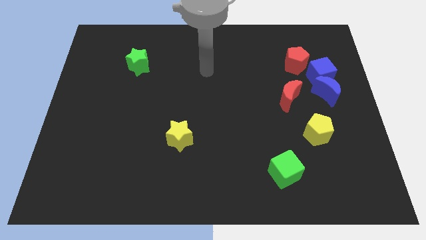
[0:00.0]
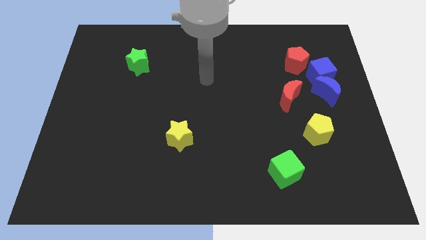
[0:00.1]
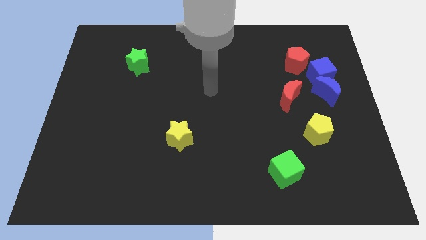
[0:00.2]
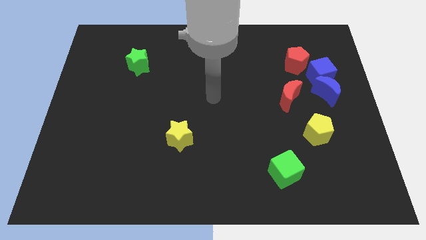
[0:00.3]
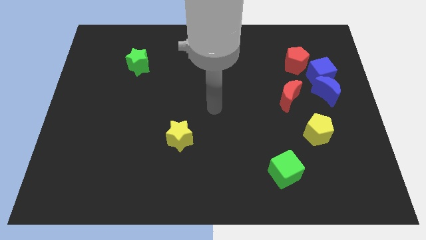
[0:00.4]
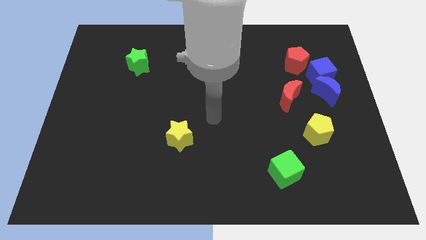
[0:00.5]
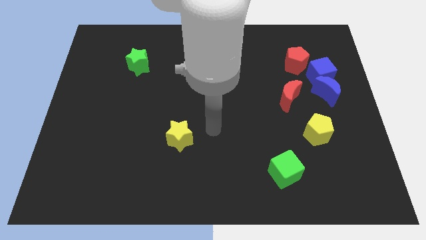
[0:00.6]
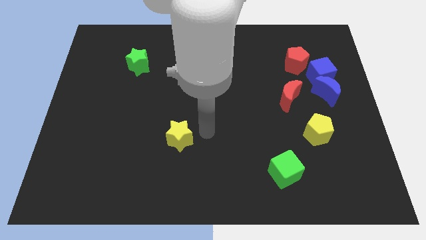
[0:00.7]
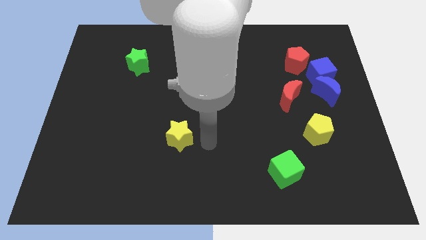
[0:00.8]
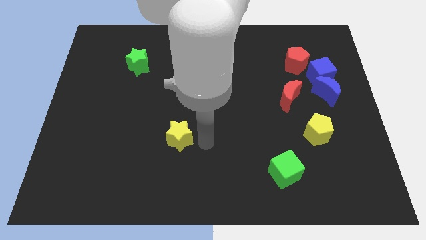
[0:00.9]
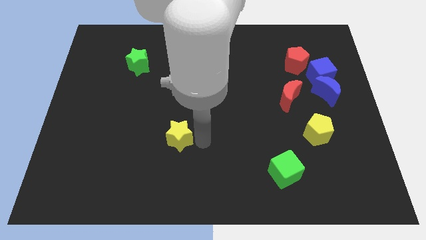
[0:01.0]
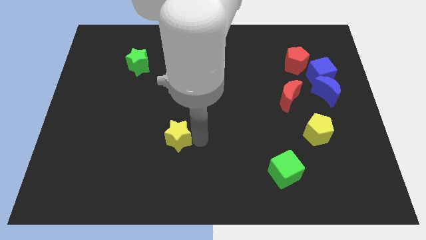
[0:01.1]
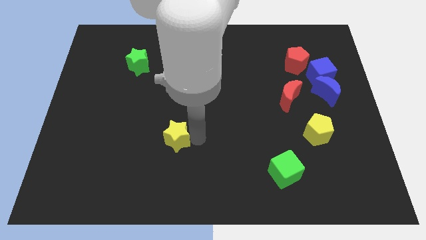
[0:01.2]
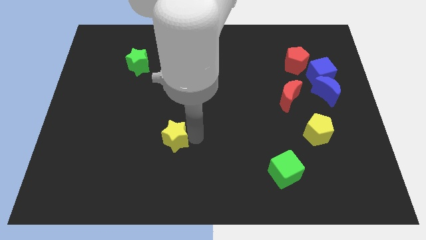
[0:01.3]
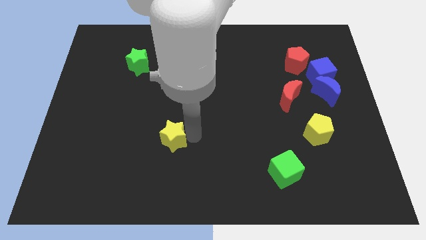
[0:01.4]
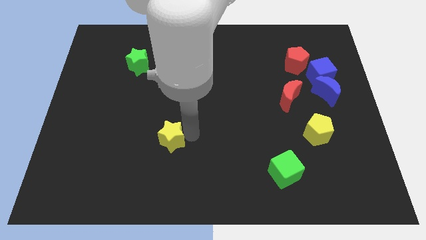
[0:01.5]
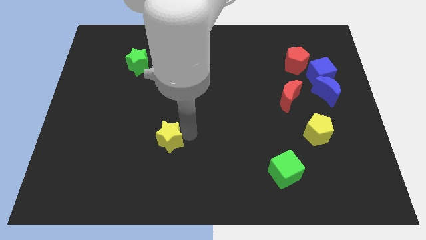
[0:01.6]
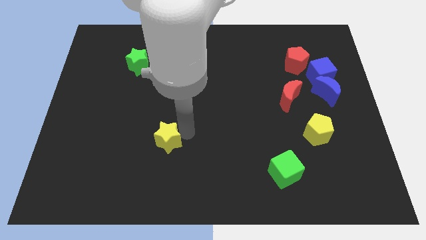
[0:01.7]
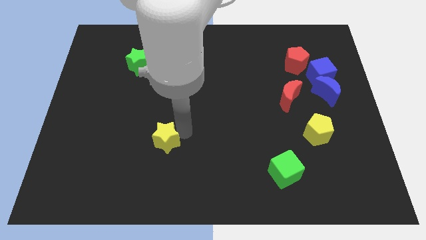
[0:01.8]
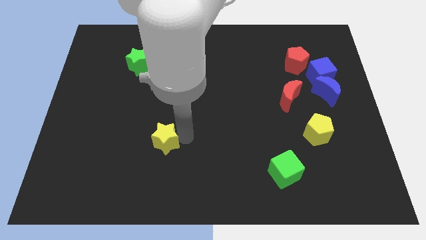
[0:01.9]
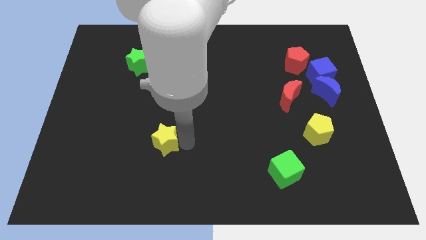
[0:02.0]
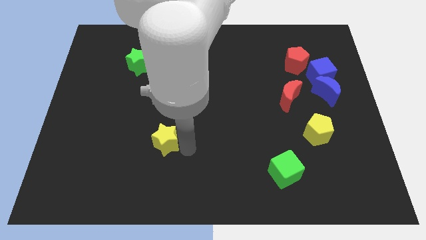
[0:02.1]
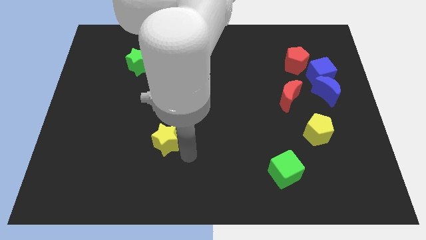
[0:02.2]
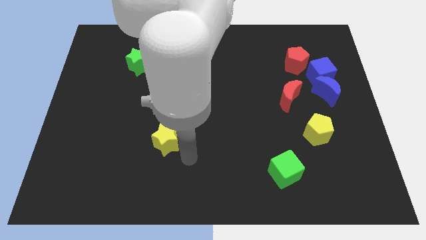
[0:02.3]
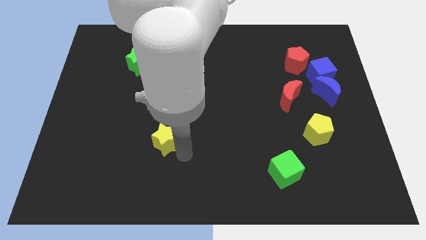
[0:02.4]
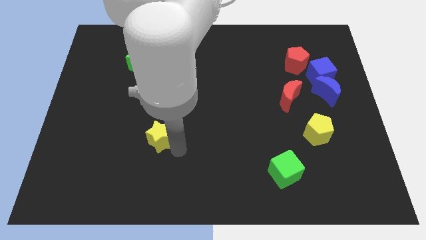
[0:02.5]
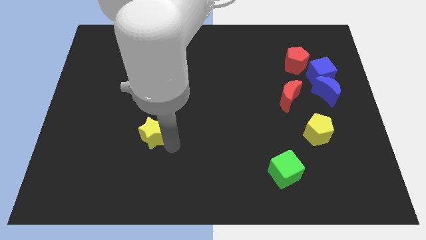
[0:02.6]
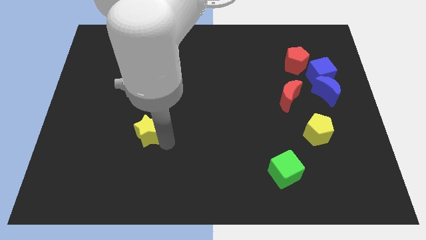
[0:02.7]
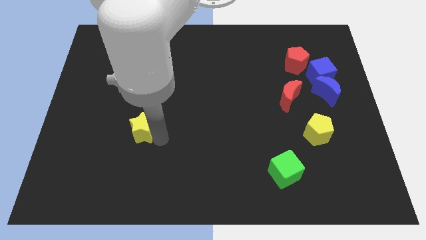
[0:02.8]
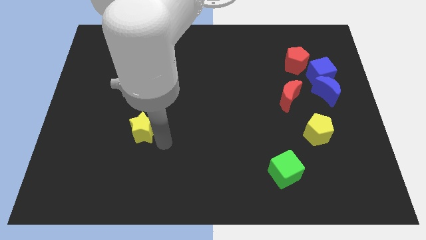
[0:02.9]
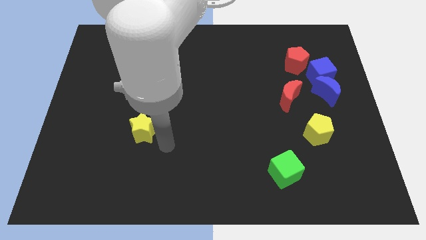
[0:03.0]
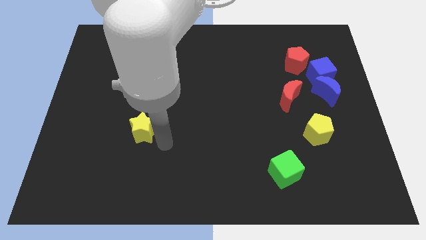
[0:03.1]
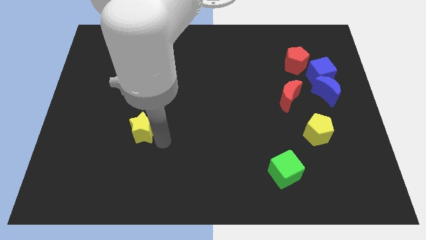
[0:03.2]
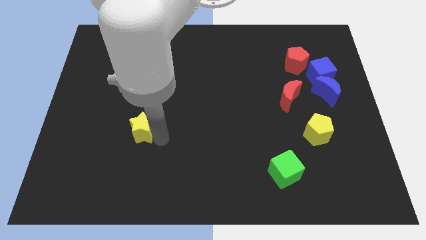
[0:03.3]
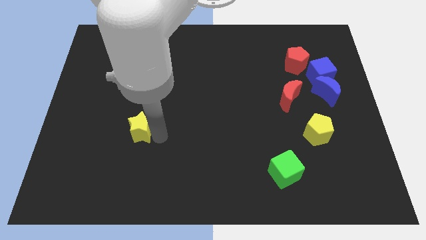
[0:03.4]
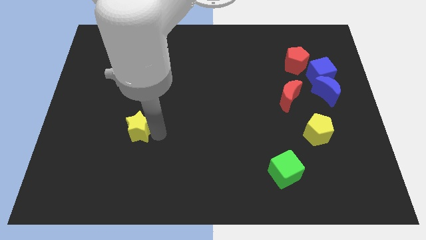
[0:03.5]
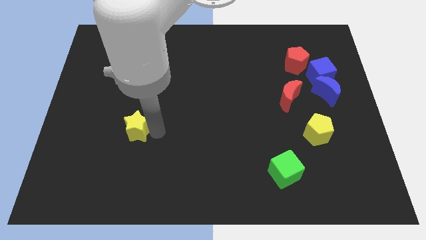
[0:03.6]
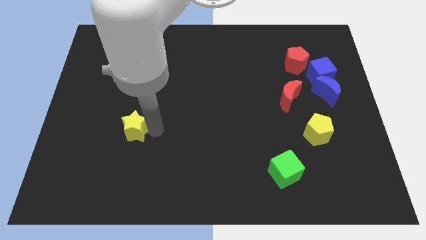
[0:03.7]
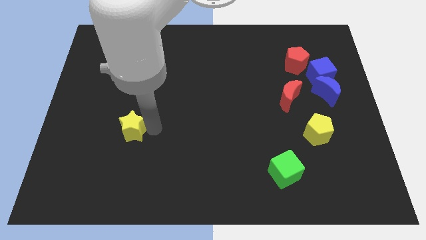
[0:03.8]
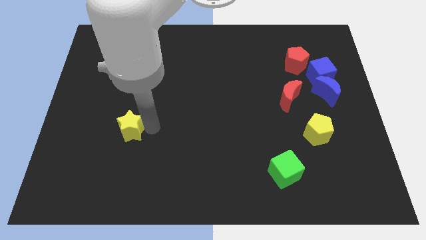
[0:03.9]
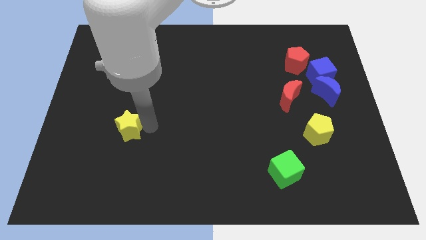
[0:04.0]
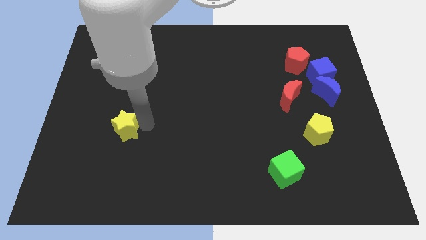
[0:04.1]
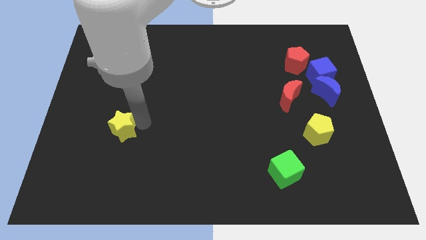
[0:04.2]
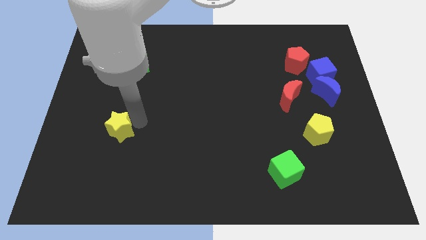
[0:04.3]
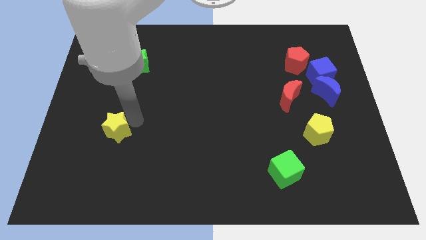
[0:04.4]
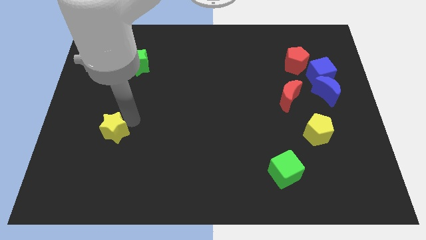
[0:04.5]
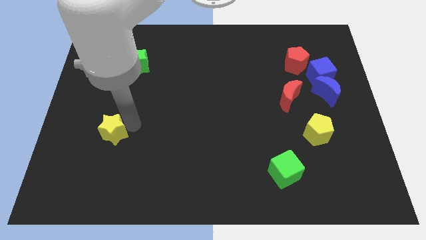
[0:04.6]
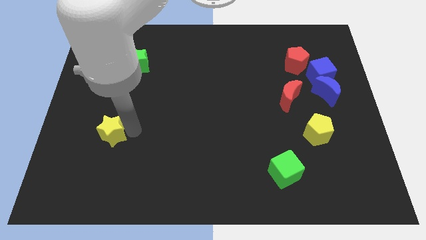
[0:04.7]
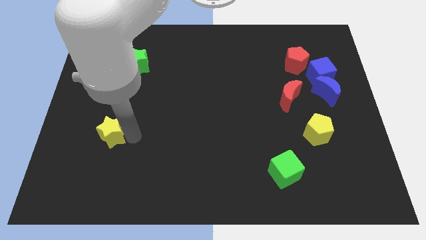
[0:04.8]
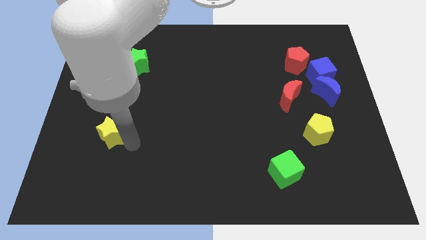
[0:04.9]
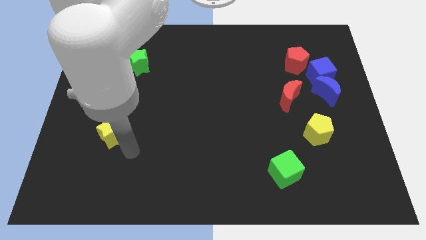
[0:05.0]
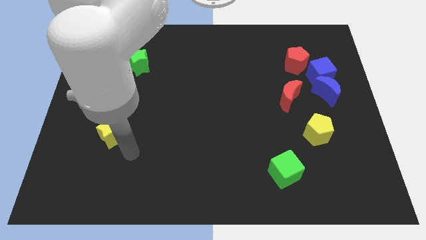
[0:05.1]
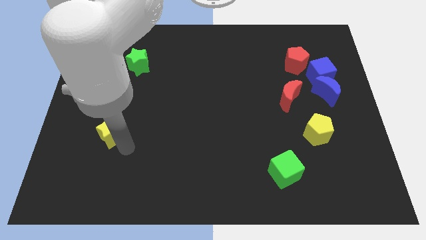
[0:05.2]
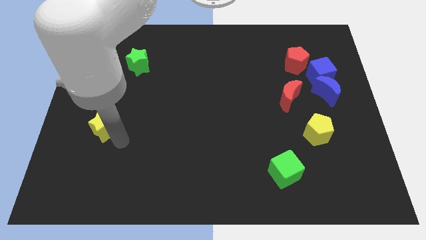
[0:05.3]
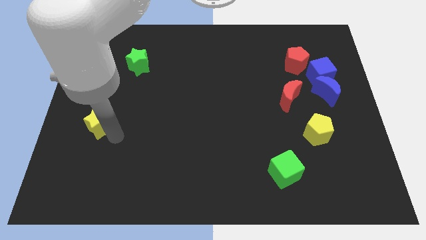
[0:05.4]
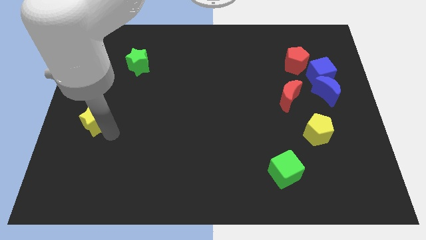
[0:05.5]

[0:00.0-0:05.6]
slide the yellow star to the left side of the board
